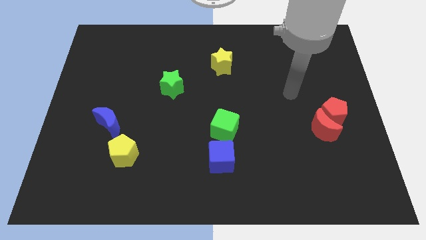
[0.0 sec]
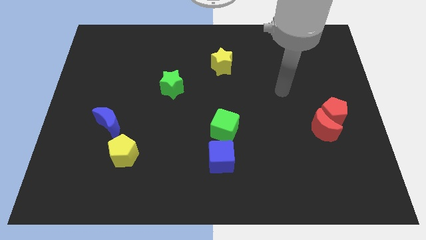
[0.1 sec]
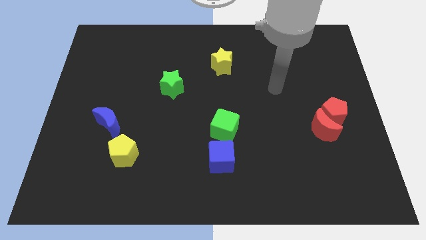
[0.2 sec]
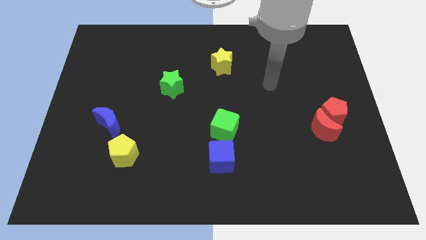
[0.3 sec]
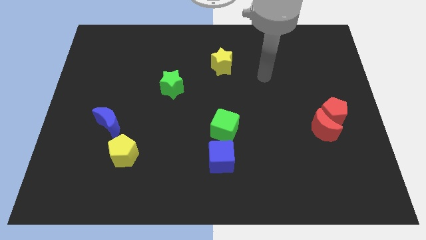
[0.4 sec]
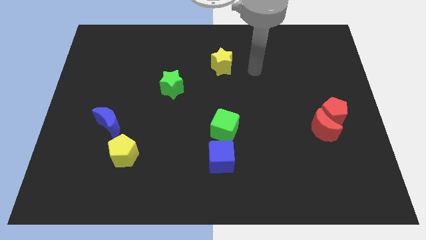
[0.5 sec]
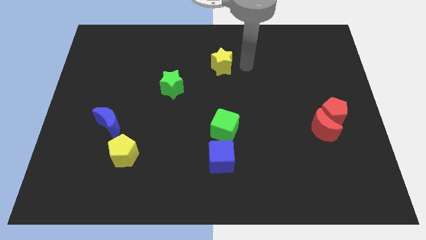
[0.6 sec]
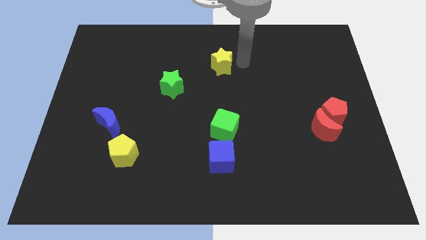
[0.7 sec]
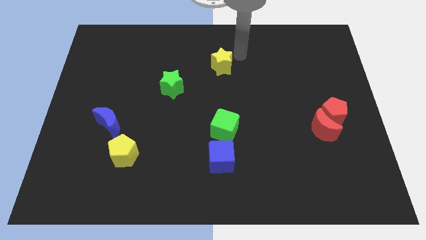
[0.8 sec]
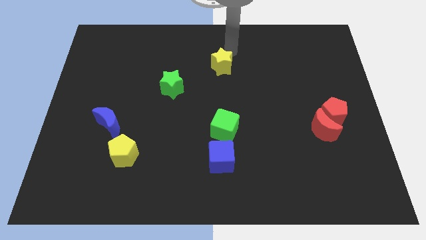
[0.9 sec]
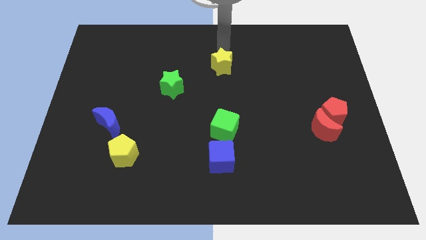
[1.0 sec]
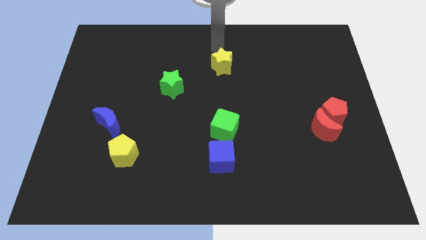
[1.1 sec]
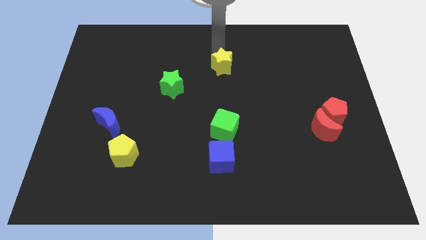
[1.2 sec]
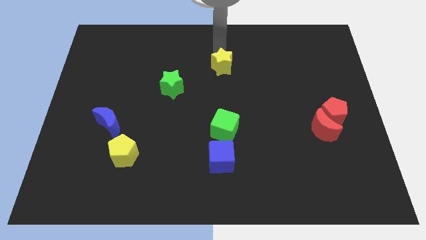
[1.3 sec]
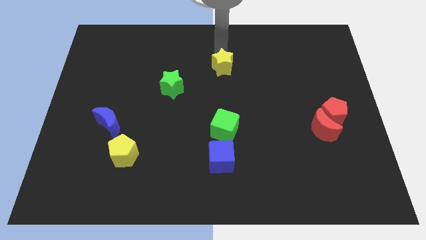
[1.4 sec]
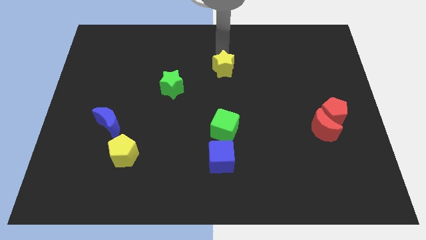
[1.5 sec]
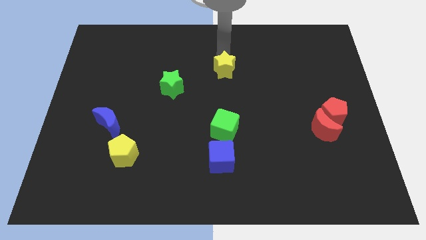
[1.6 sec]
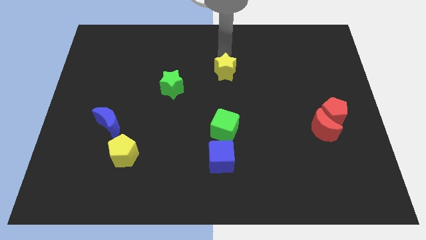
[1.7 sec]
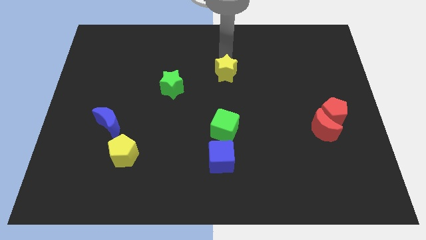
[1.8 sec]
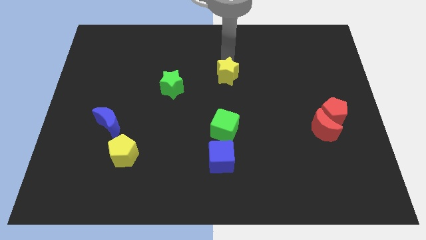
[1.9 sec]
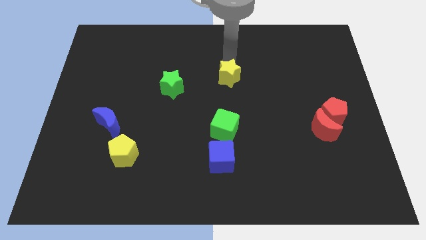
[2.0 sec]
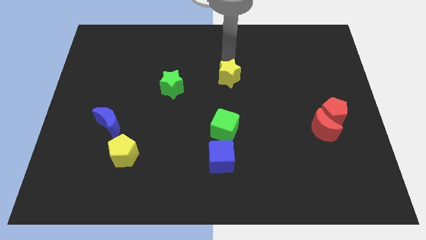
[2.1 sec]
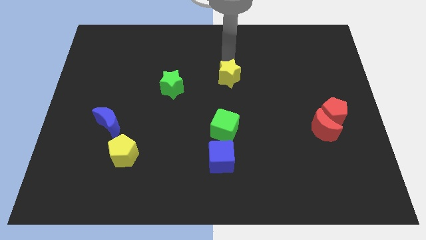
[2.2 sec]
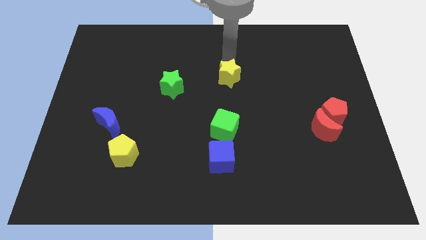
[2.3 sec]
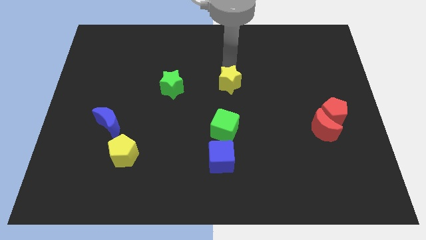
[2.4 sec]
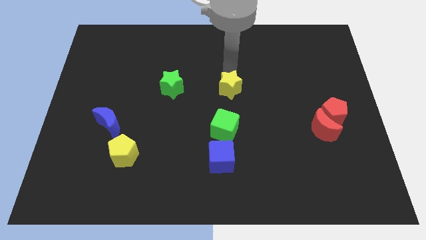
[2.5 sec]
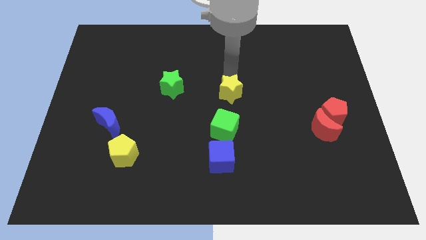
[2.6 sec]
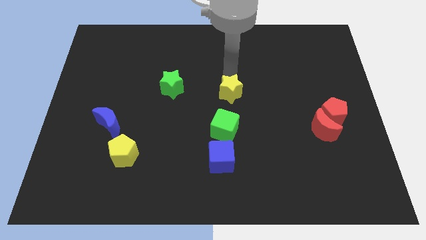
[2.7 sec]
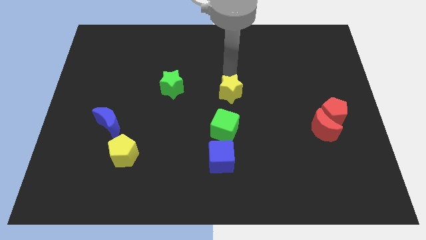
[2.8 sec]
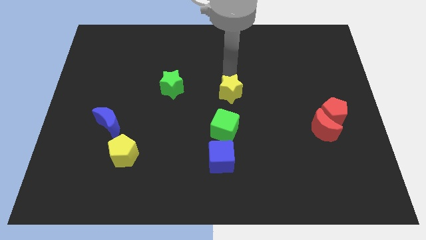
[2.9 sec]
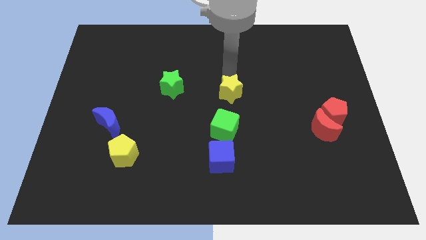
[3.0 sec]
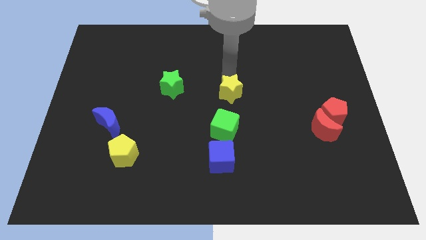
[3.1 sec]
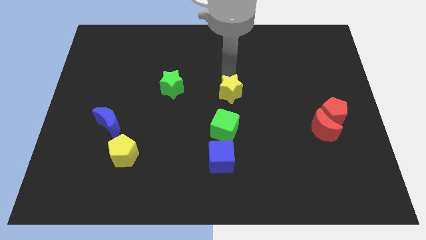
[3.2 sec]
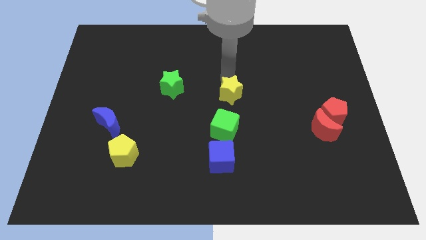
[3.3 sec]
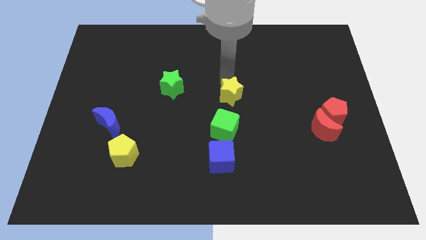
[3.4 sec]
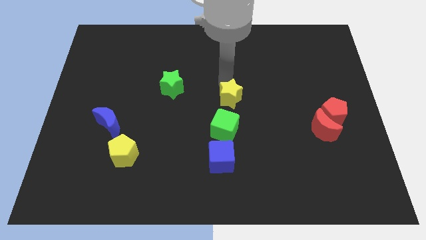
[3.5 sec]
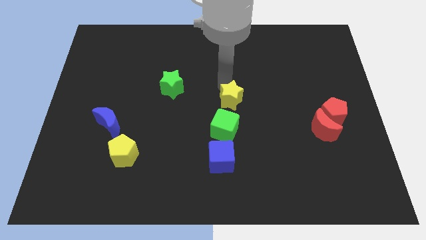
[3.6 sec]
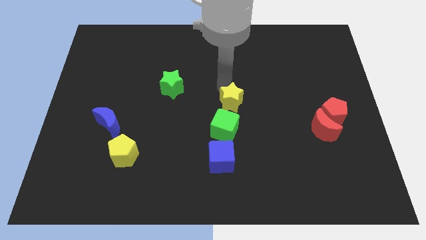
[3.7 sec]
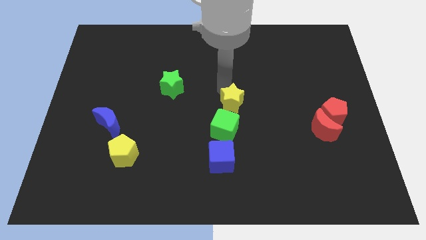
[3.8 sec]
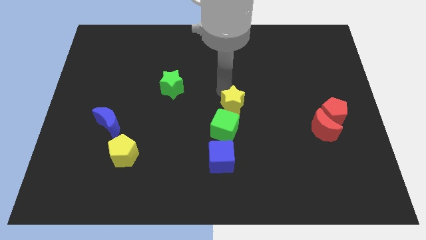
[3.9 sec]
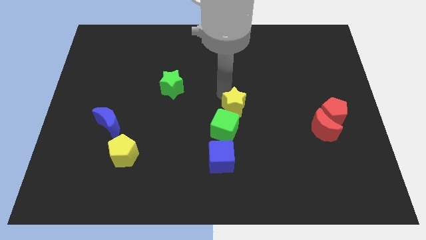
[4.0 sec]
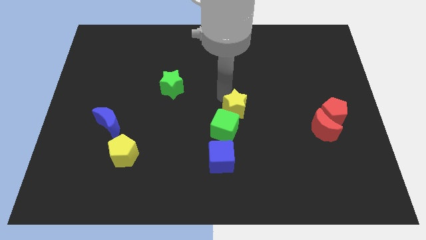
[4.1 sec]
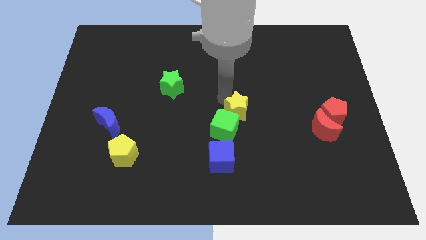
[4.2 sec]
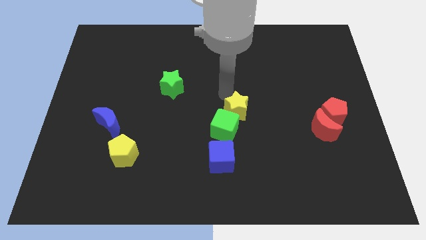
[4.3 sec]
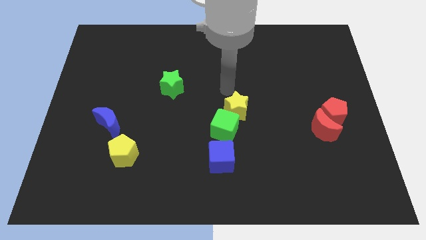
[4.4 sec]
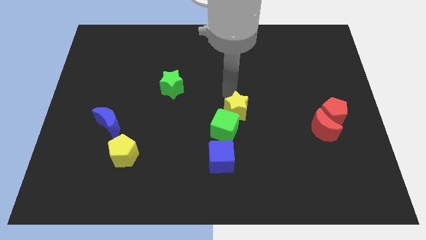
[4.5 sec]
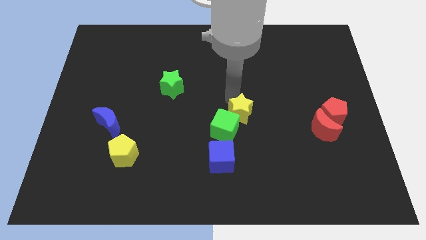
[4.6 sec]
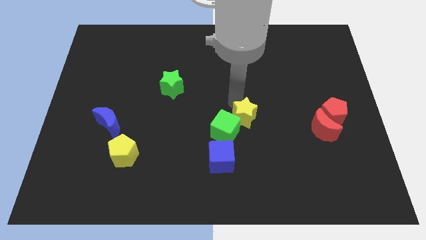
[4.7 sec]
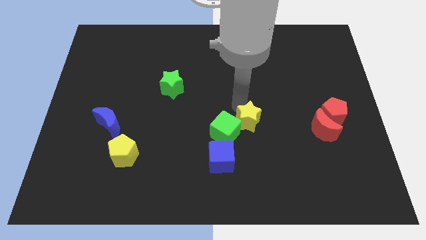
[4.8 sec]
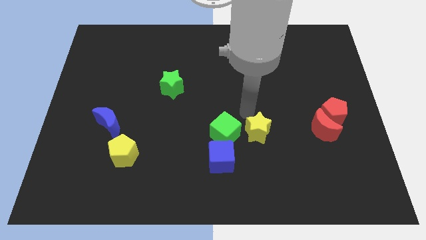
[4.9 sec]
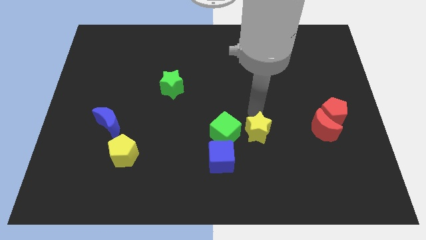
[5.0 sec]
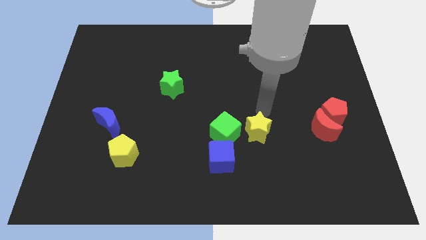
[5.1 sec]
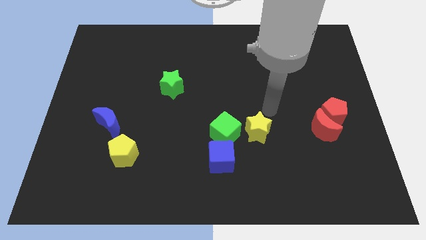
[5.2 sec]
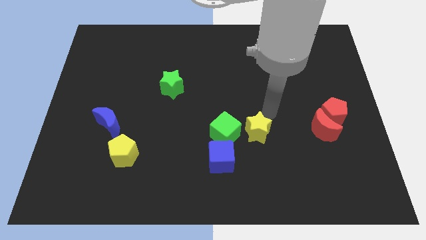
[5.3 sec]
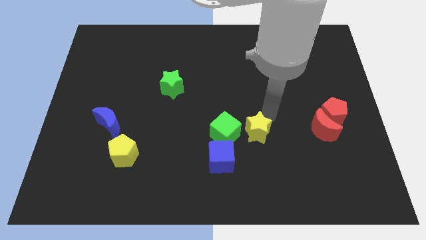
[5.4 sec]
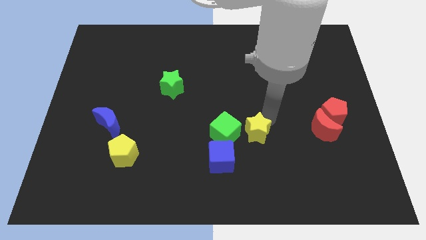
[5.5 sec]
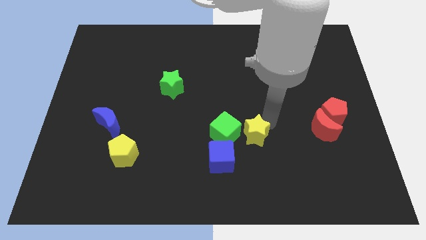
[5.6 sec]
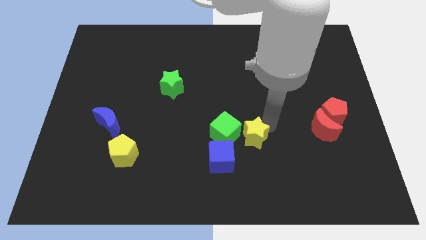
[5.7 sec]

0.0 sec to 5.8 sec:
move the yellow star down

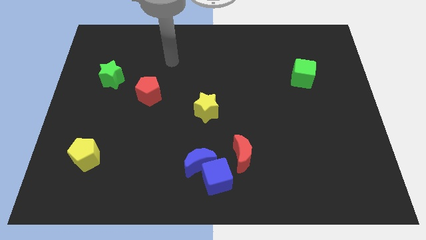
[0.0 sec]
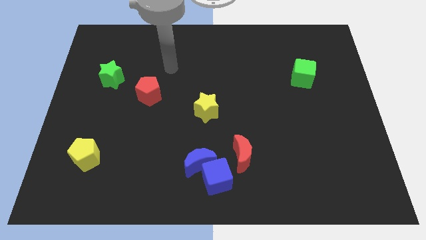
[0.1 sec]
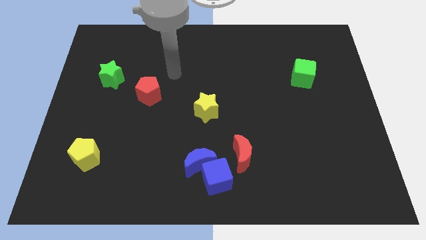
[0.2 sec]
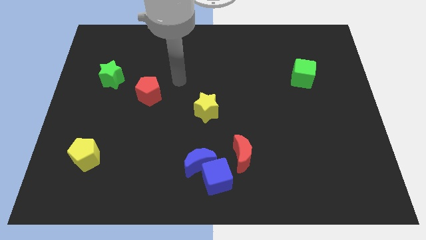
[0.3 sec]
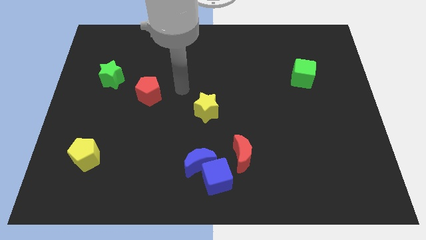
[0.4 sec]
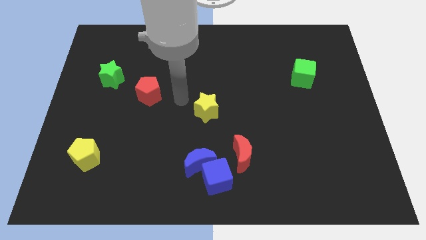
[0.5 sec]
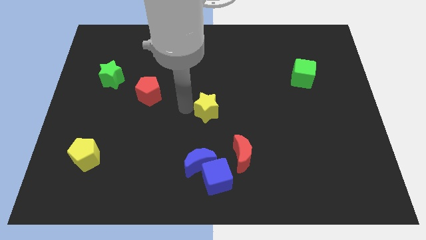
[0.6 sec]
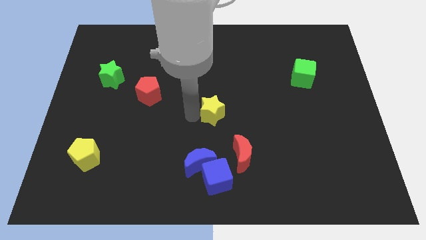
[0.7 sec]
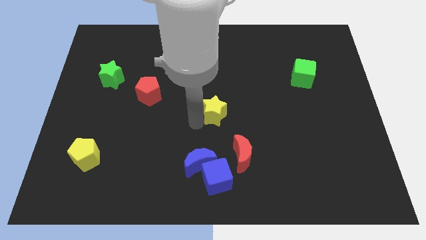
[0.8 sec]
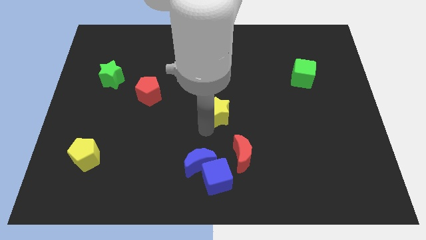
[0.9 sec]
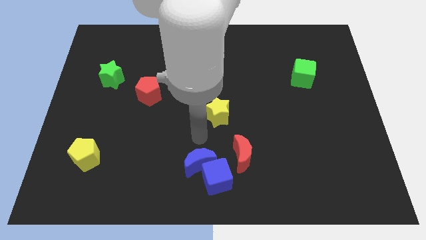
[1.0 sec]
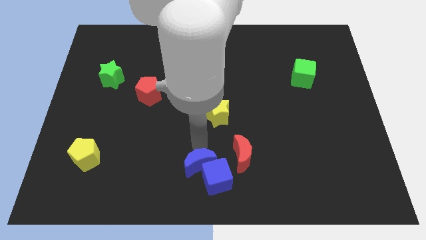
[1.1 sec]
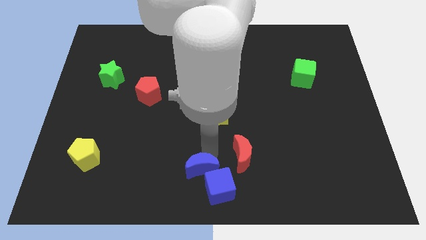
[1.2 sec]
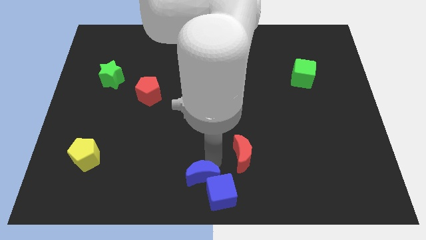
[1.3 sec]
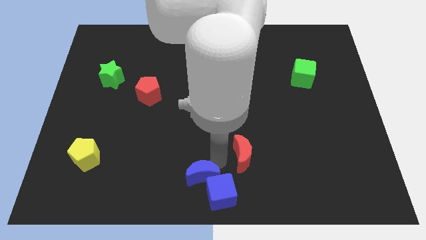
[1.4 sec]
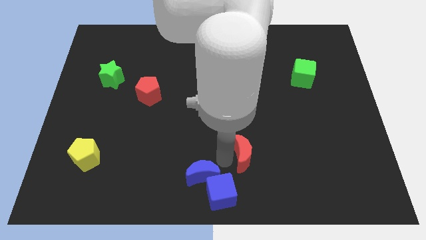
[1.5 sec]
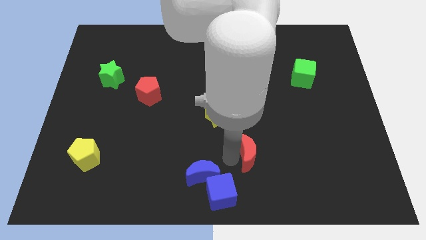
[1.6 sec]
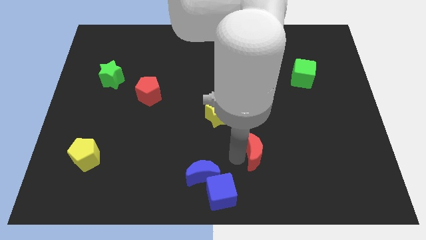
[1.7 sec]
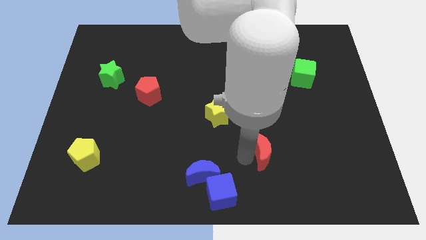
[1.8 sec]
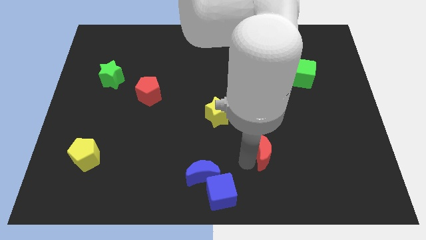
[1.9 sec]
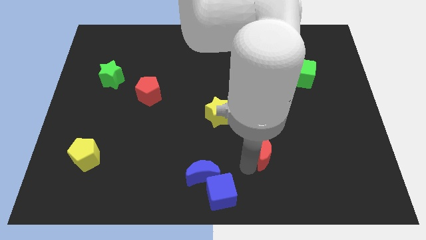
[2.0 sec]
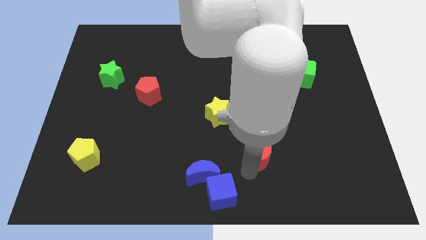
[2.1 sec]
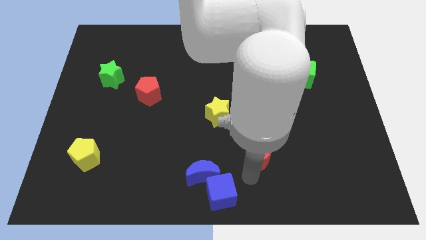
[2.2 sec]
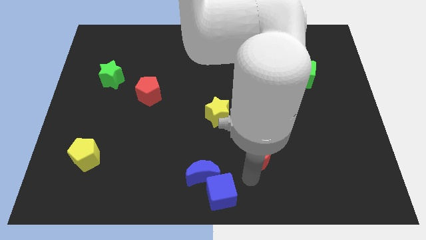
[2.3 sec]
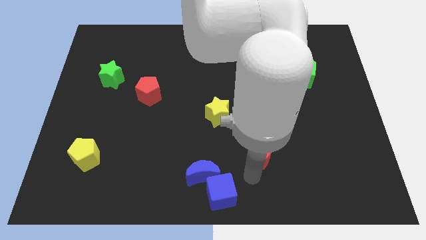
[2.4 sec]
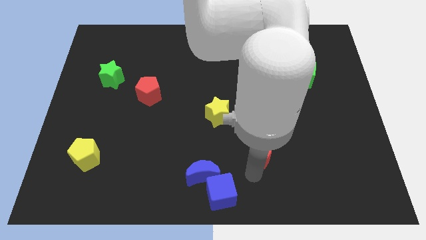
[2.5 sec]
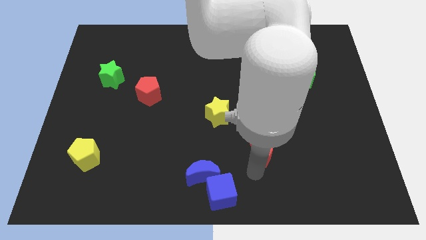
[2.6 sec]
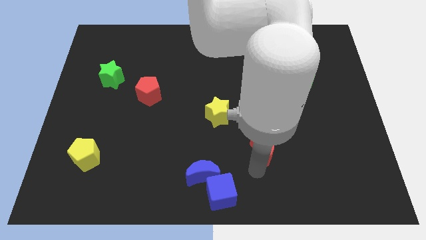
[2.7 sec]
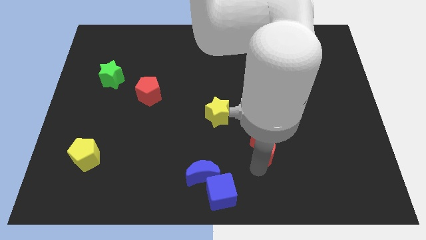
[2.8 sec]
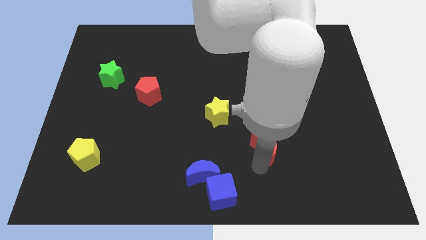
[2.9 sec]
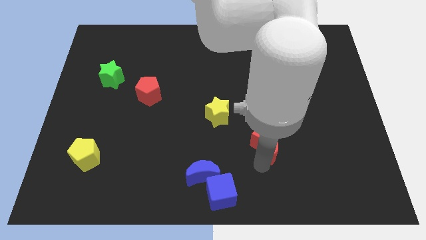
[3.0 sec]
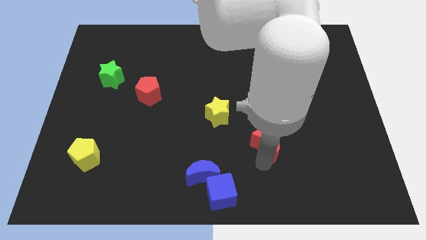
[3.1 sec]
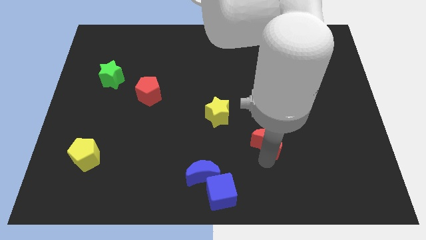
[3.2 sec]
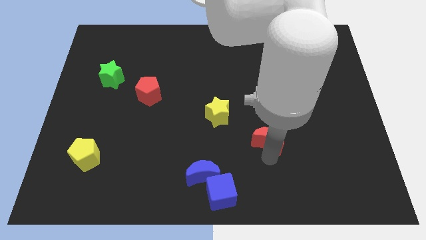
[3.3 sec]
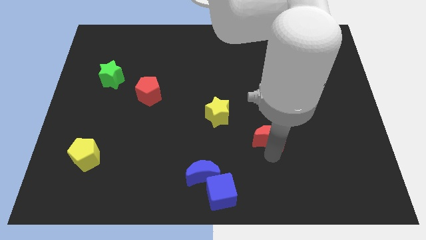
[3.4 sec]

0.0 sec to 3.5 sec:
slightly move the red moon diagonally up and right
